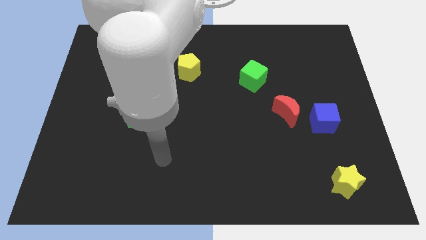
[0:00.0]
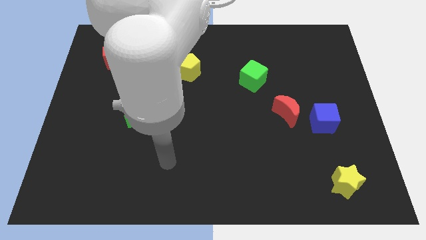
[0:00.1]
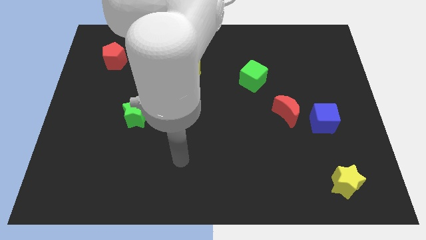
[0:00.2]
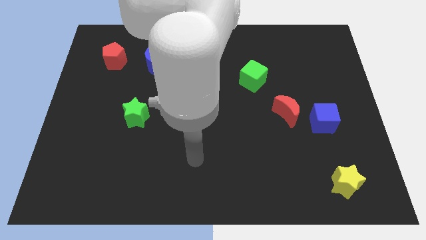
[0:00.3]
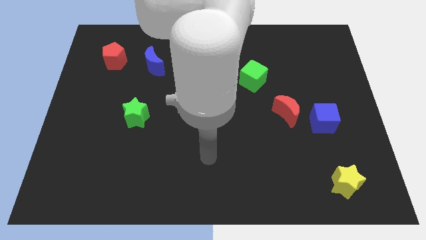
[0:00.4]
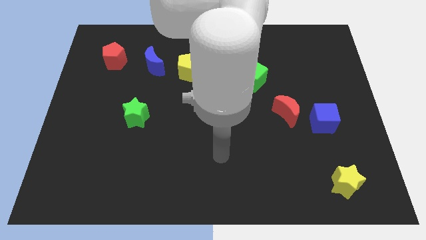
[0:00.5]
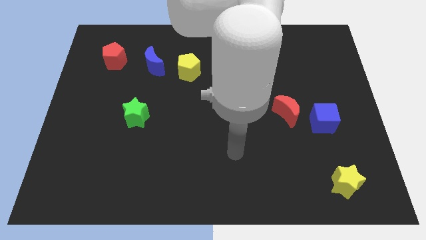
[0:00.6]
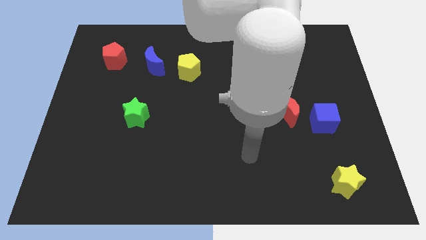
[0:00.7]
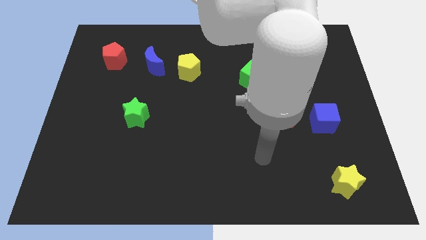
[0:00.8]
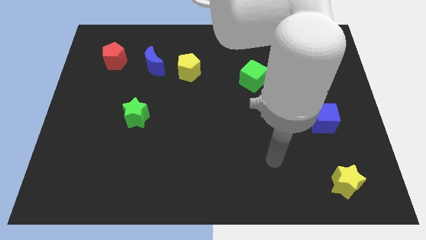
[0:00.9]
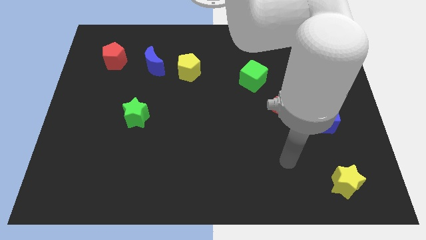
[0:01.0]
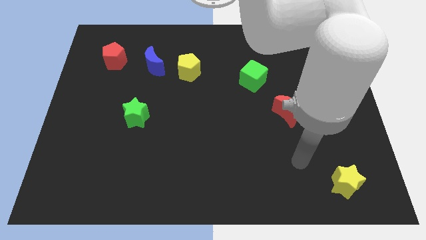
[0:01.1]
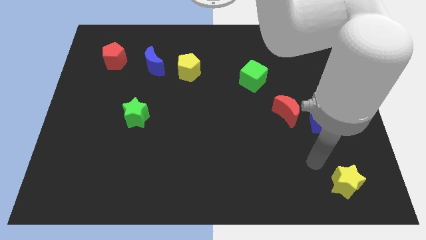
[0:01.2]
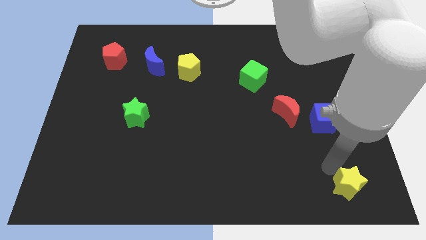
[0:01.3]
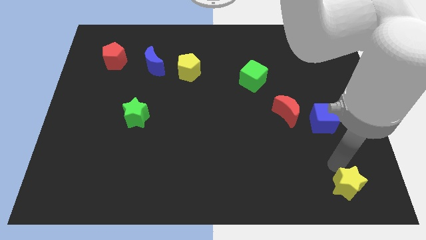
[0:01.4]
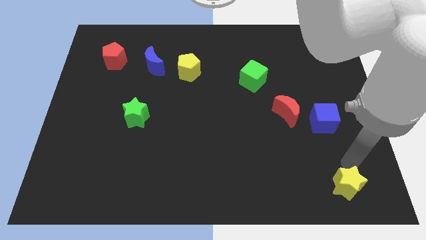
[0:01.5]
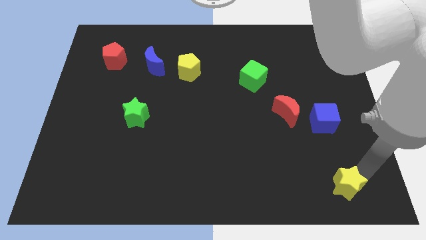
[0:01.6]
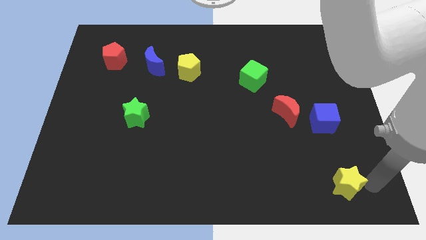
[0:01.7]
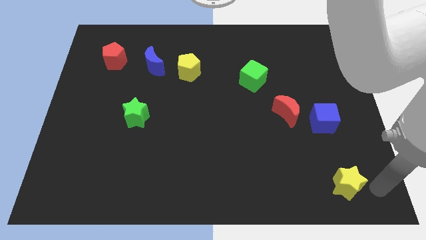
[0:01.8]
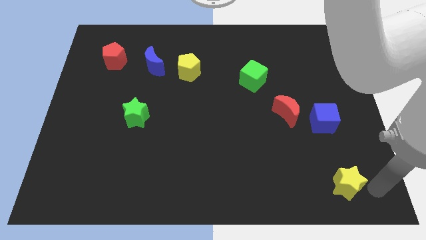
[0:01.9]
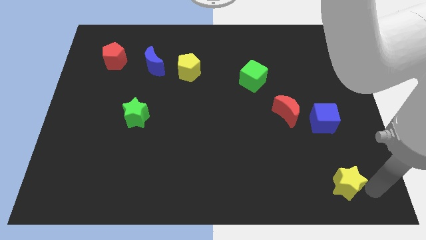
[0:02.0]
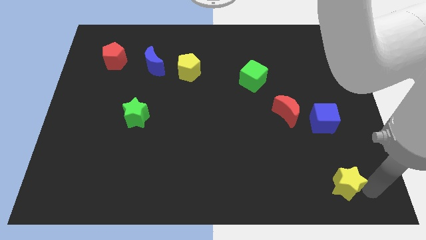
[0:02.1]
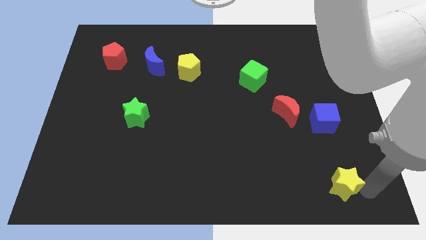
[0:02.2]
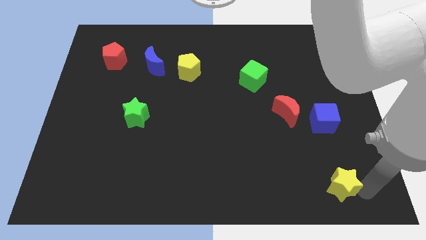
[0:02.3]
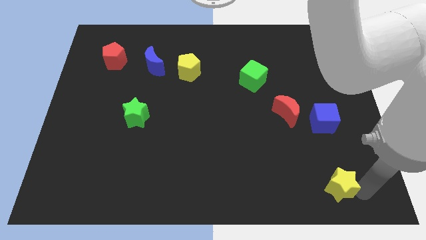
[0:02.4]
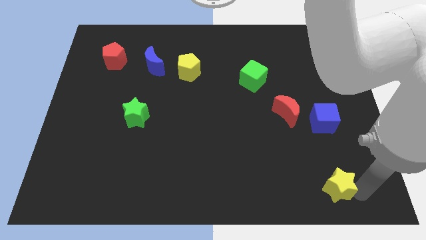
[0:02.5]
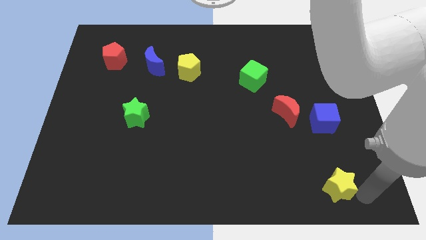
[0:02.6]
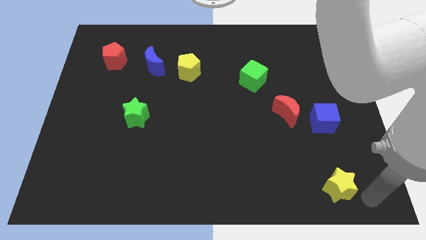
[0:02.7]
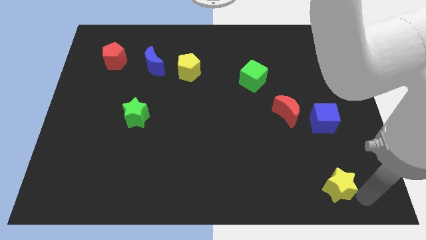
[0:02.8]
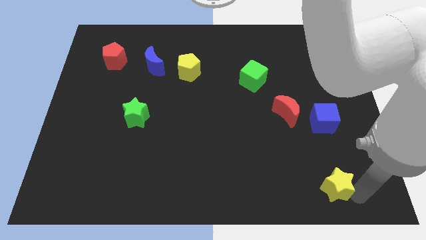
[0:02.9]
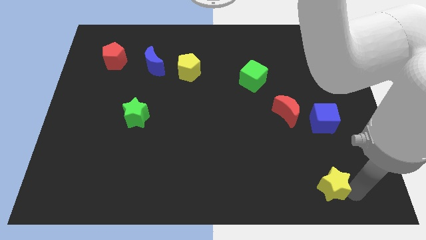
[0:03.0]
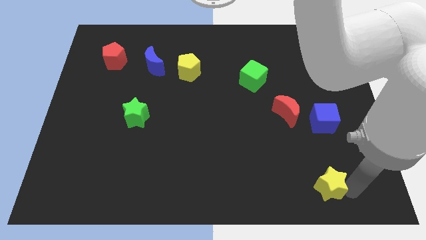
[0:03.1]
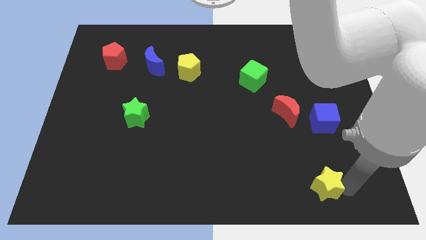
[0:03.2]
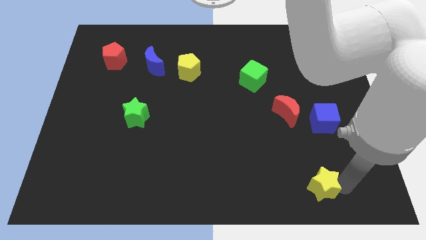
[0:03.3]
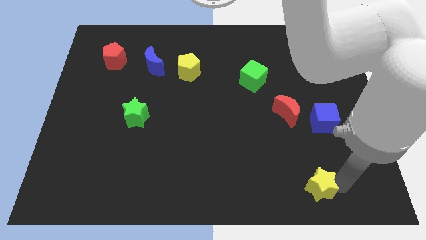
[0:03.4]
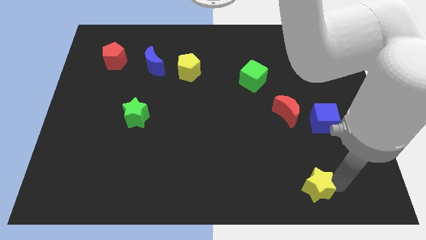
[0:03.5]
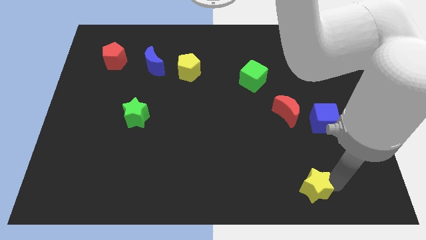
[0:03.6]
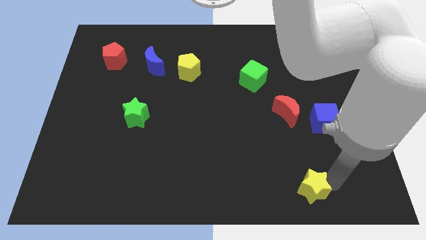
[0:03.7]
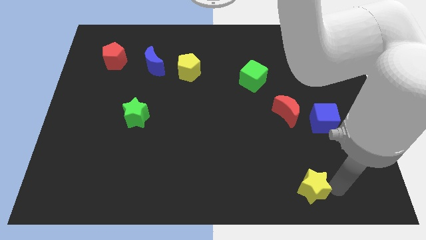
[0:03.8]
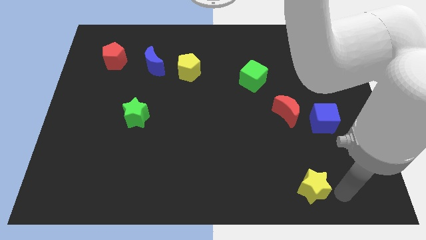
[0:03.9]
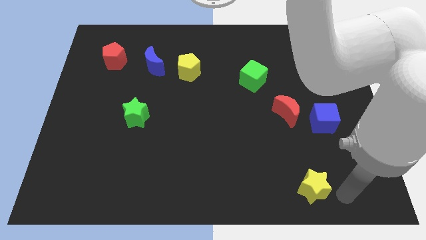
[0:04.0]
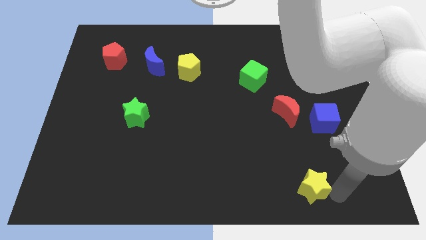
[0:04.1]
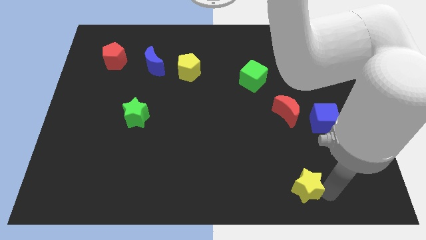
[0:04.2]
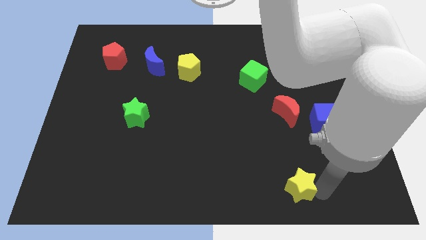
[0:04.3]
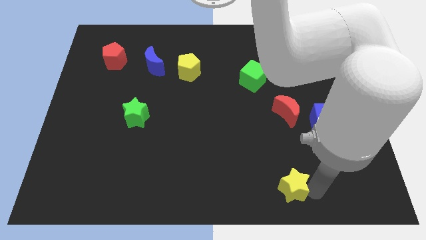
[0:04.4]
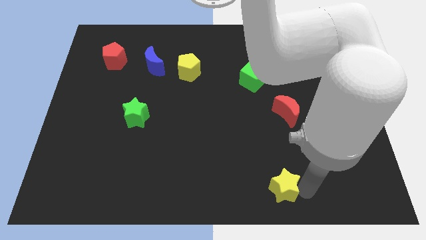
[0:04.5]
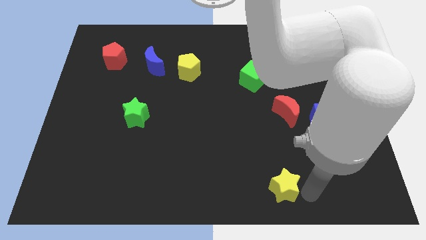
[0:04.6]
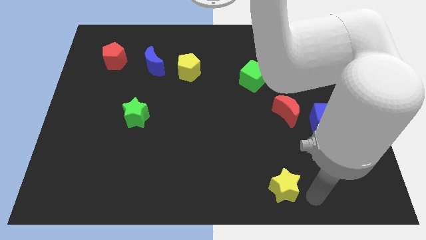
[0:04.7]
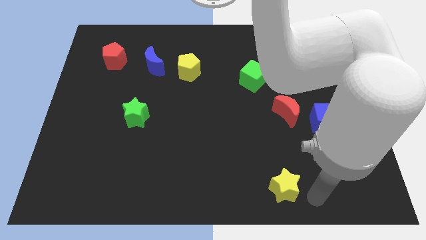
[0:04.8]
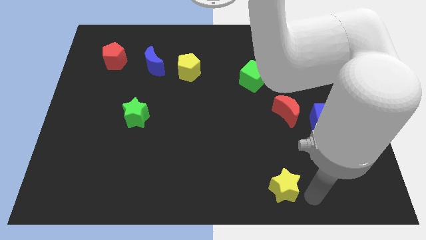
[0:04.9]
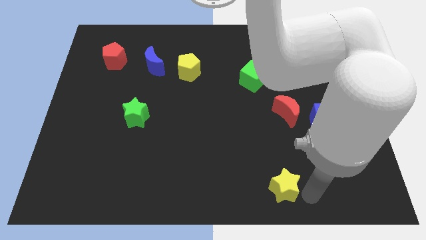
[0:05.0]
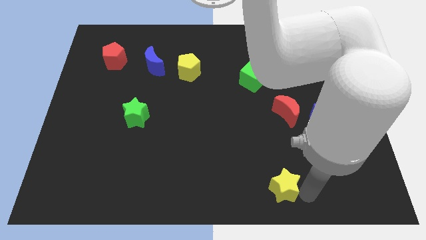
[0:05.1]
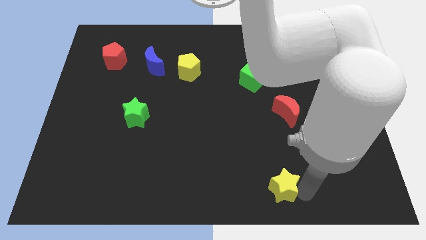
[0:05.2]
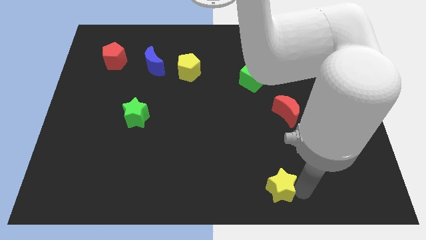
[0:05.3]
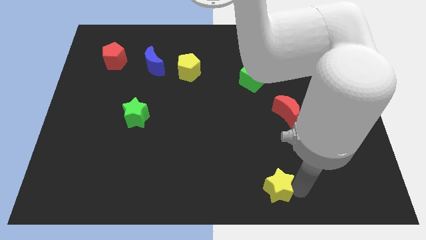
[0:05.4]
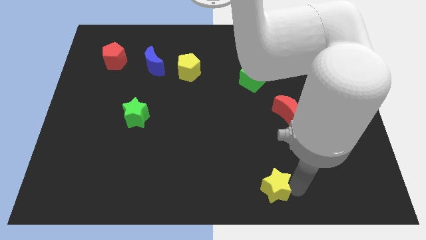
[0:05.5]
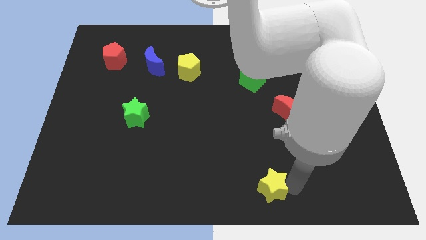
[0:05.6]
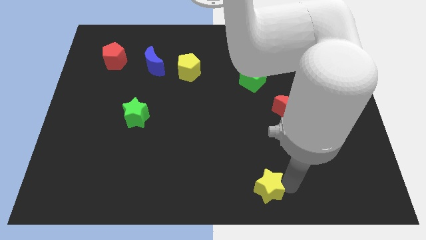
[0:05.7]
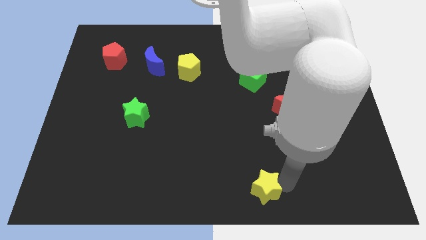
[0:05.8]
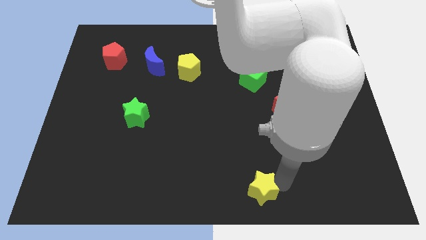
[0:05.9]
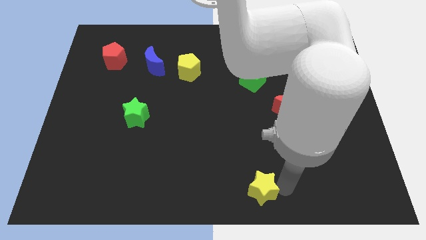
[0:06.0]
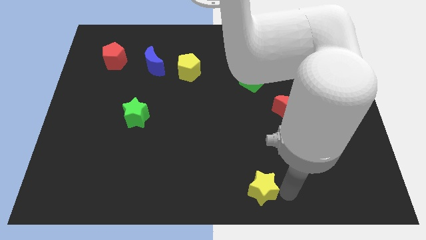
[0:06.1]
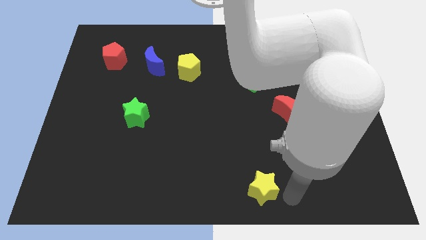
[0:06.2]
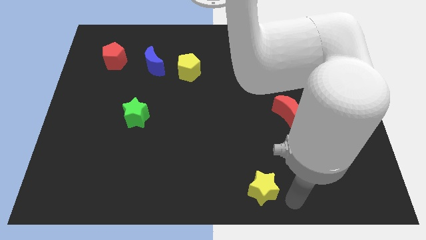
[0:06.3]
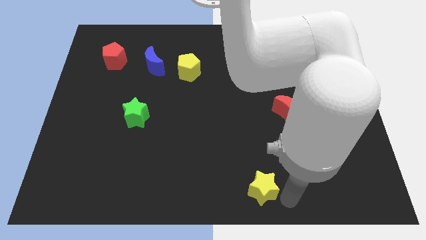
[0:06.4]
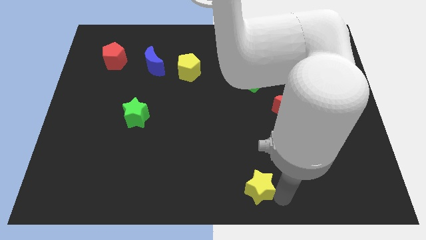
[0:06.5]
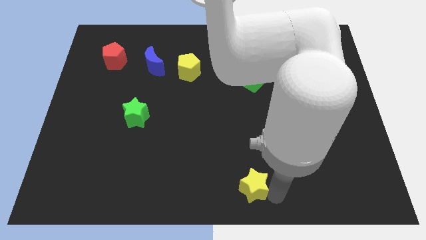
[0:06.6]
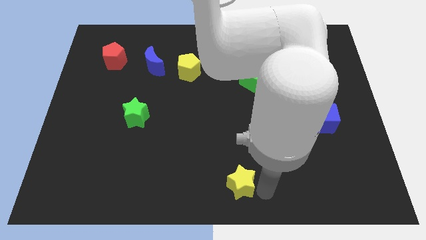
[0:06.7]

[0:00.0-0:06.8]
push the yellow star to the left

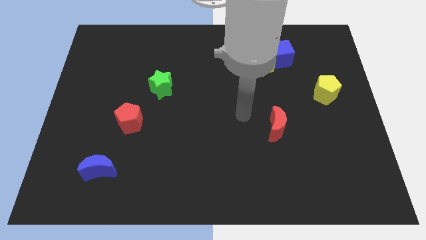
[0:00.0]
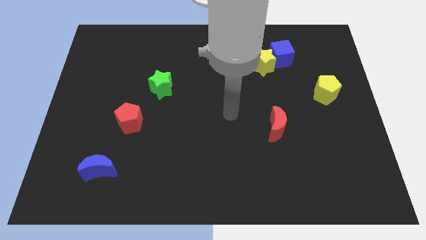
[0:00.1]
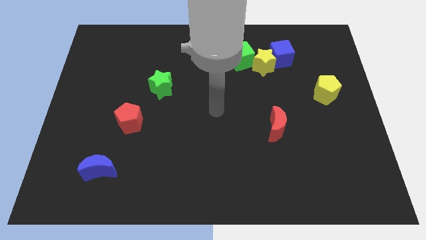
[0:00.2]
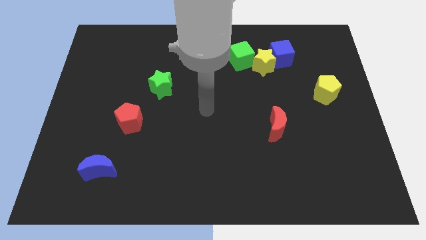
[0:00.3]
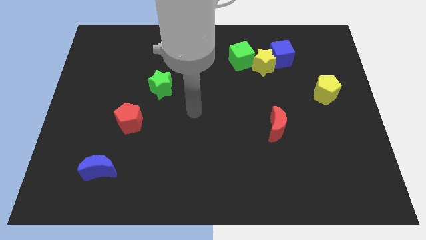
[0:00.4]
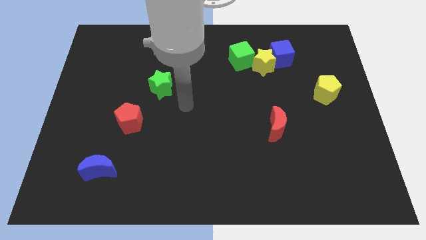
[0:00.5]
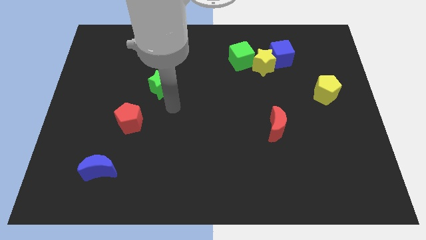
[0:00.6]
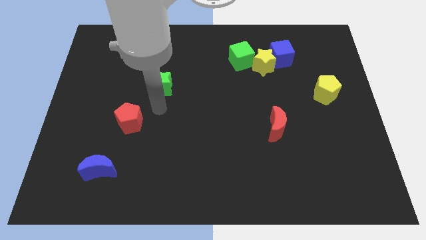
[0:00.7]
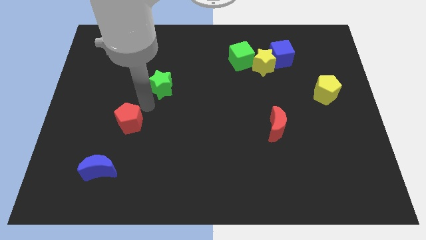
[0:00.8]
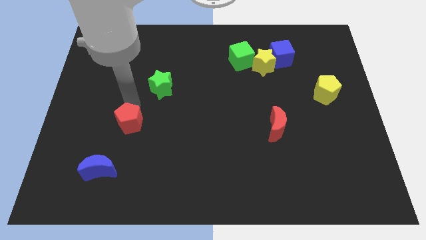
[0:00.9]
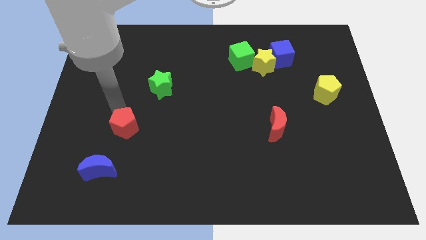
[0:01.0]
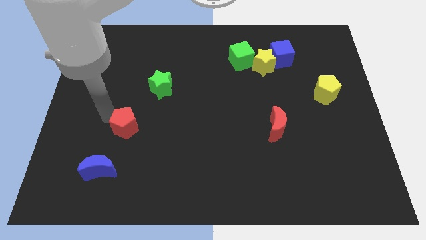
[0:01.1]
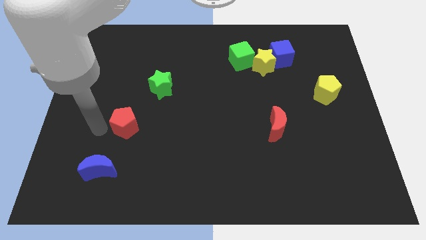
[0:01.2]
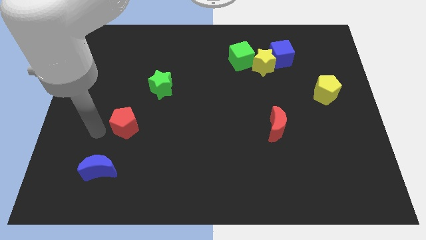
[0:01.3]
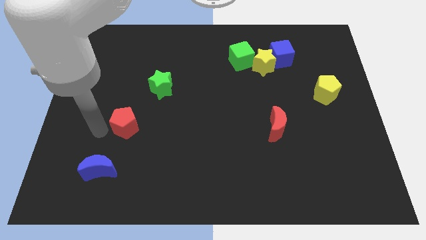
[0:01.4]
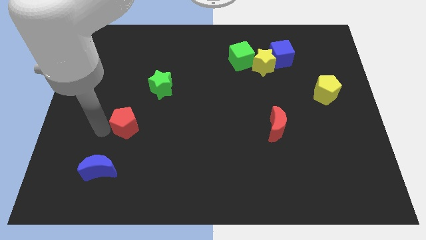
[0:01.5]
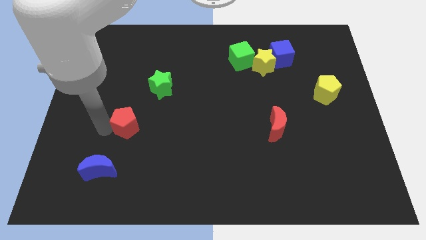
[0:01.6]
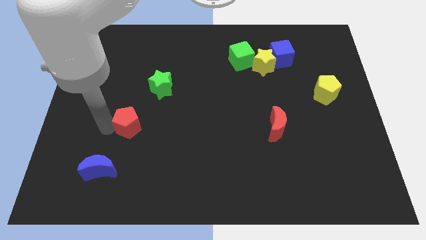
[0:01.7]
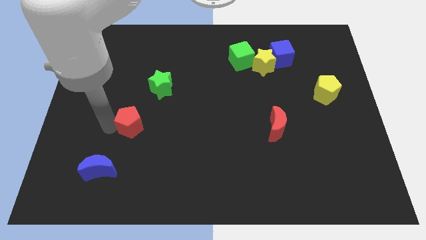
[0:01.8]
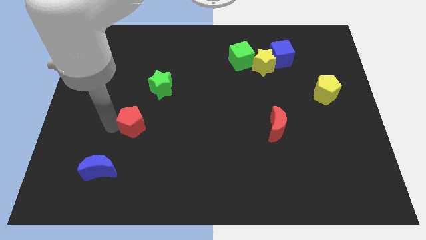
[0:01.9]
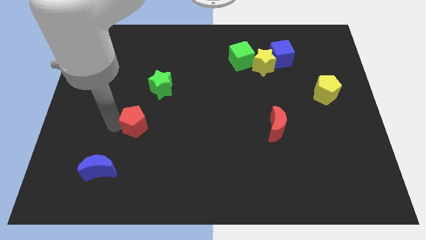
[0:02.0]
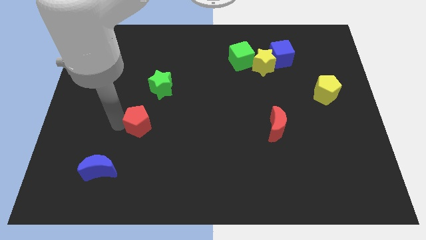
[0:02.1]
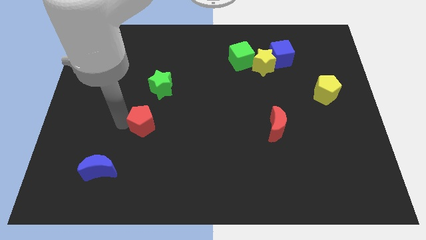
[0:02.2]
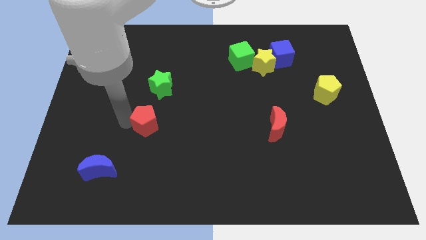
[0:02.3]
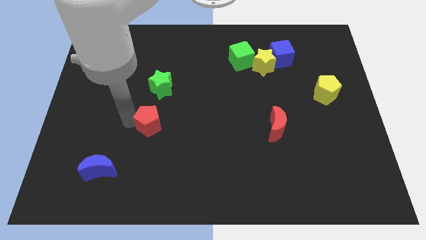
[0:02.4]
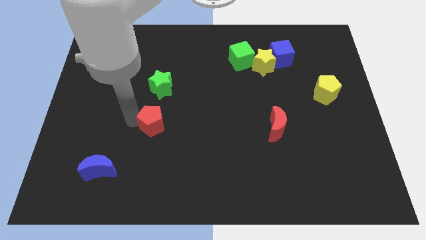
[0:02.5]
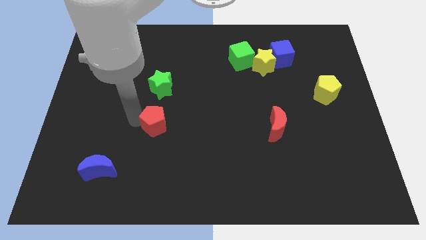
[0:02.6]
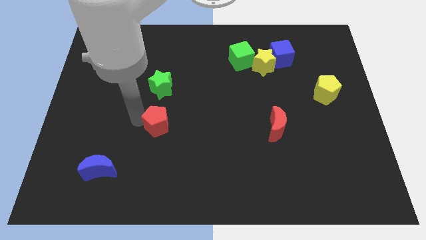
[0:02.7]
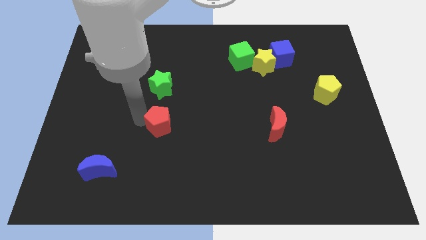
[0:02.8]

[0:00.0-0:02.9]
move the red pentagon somewhat to the right
